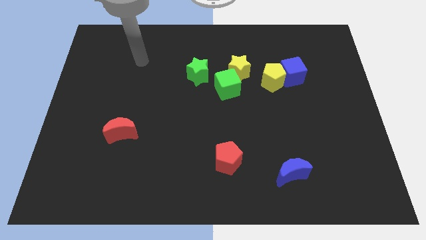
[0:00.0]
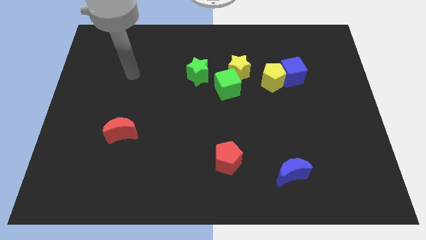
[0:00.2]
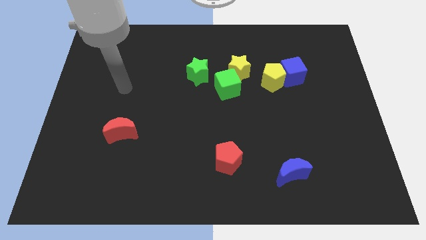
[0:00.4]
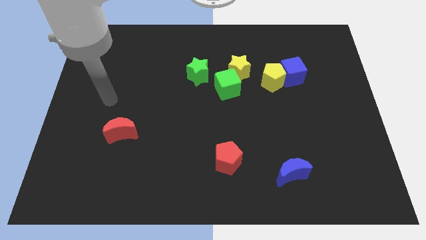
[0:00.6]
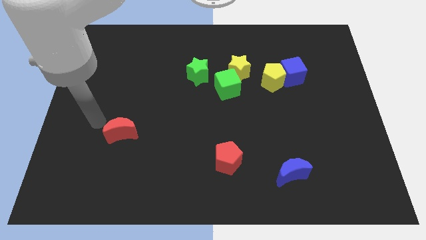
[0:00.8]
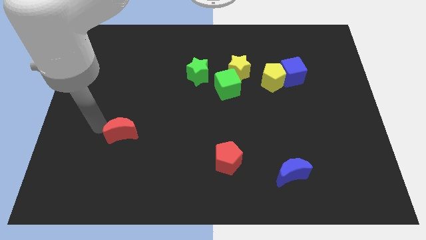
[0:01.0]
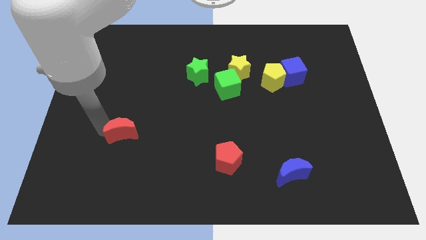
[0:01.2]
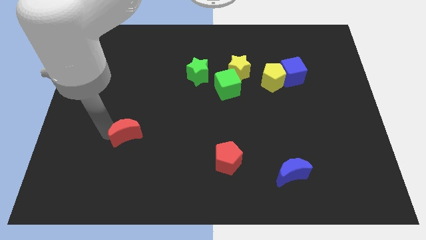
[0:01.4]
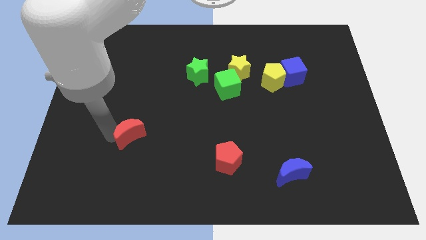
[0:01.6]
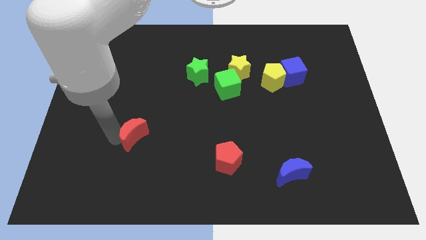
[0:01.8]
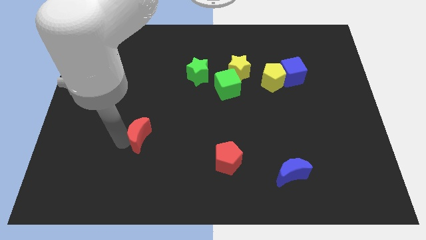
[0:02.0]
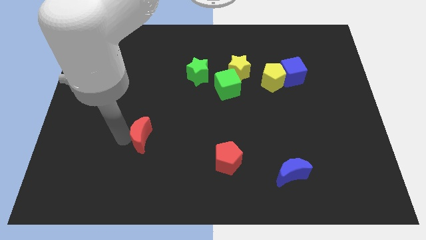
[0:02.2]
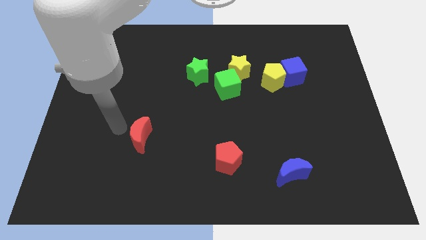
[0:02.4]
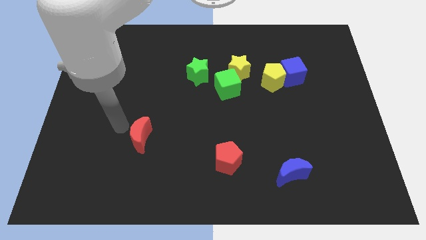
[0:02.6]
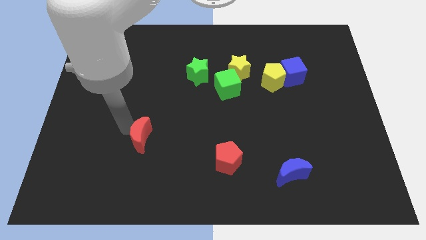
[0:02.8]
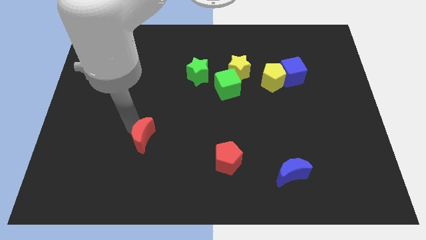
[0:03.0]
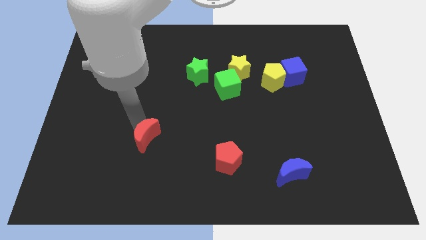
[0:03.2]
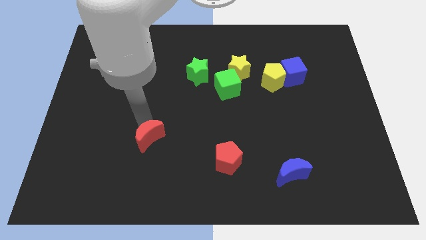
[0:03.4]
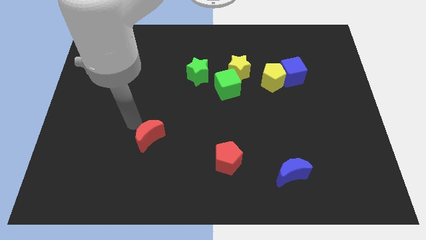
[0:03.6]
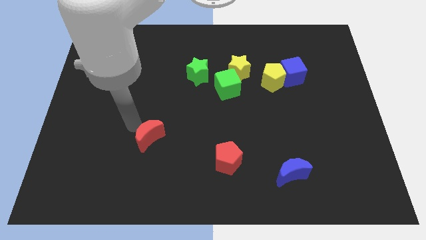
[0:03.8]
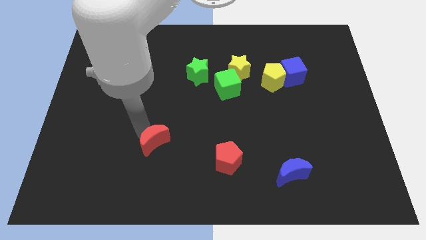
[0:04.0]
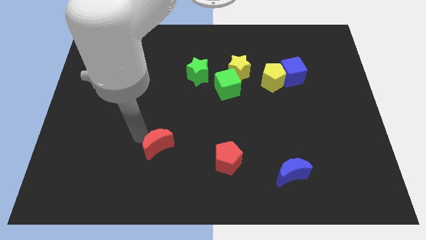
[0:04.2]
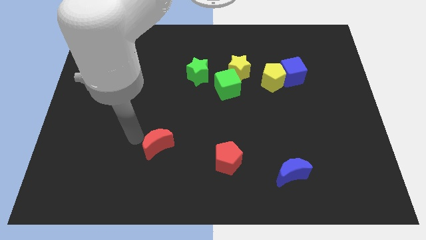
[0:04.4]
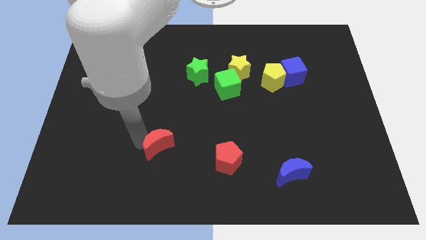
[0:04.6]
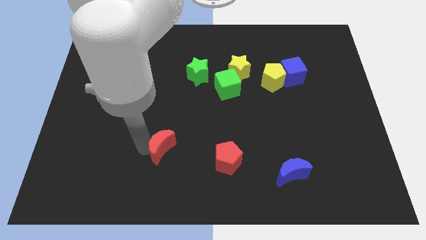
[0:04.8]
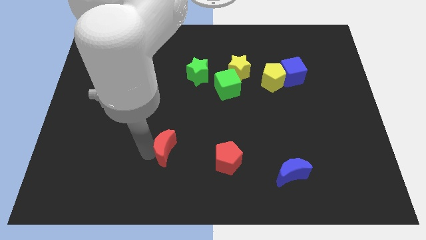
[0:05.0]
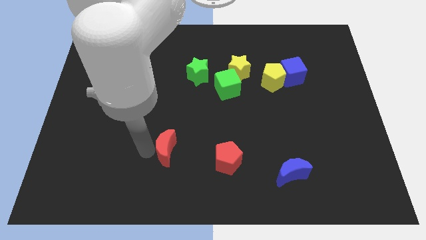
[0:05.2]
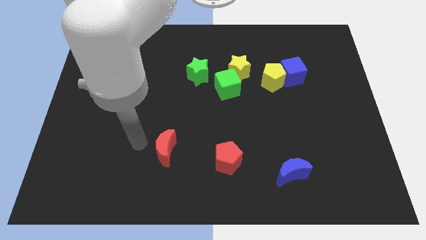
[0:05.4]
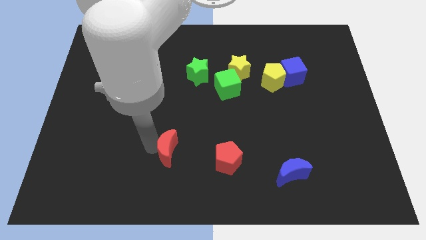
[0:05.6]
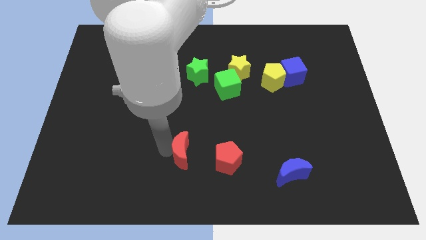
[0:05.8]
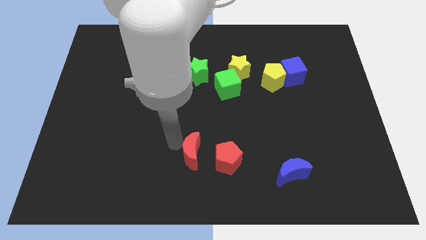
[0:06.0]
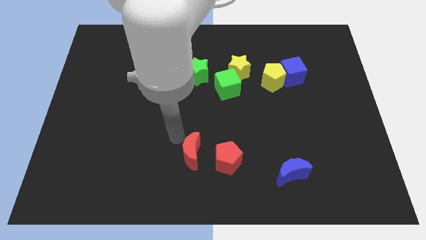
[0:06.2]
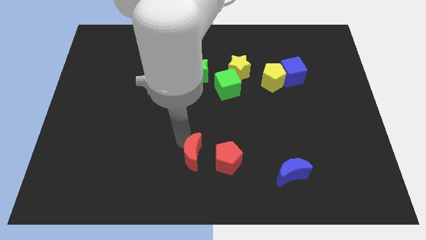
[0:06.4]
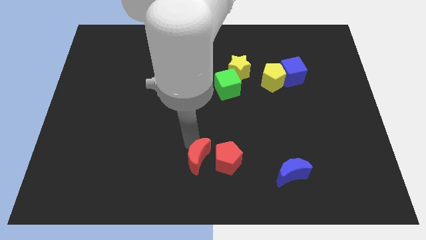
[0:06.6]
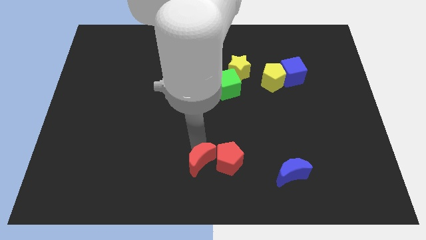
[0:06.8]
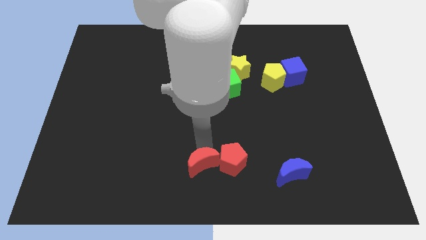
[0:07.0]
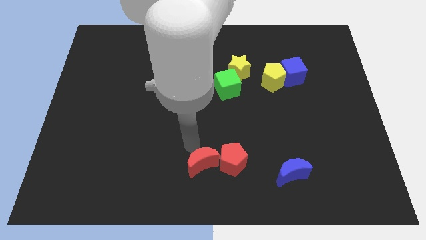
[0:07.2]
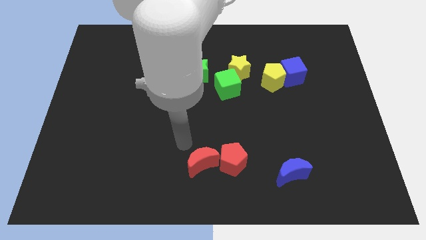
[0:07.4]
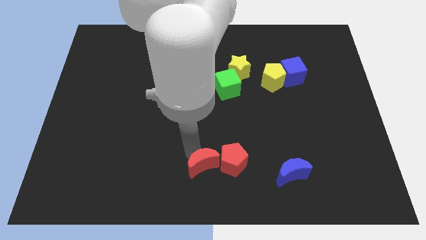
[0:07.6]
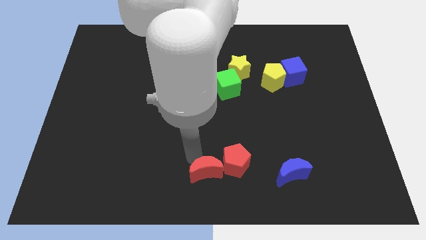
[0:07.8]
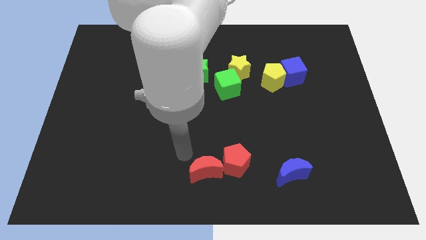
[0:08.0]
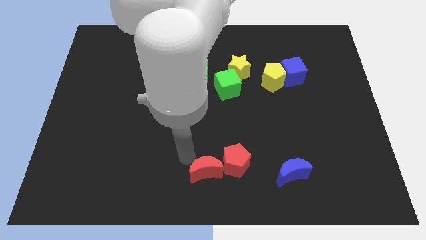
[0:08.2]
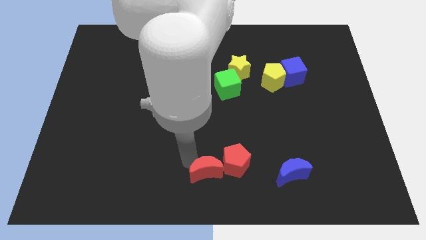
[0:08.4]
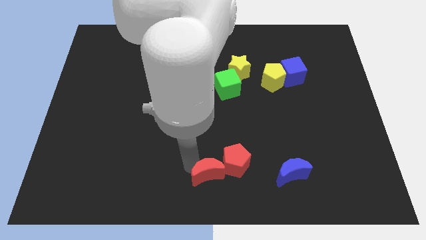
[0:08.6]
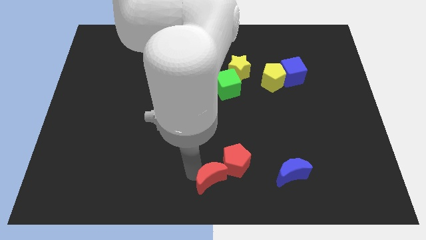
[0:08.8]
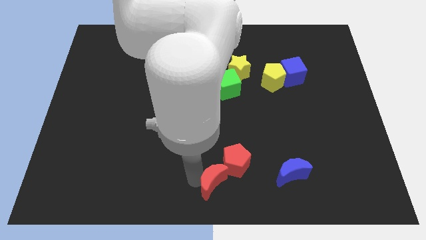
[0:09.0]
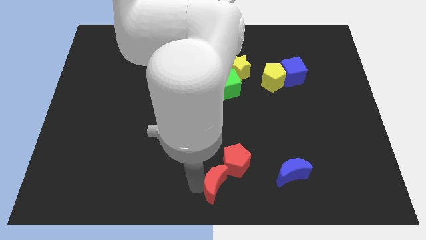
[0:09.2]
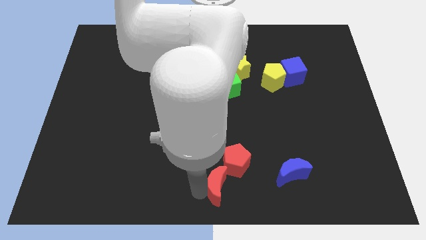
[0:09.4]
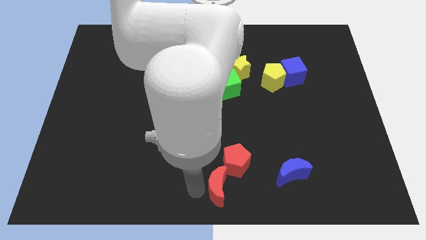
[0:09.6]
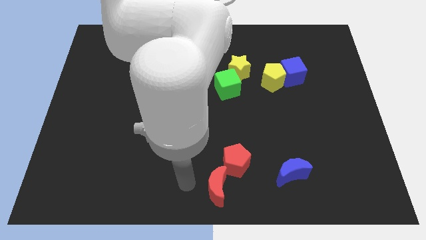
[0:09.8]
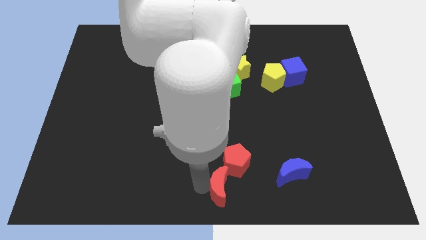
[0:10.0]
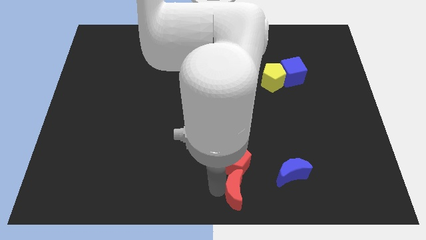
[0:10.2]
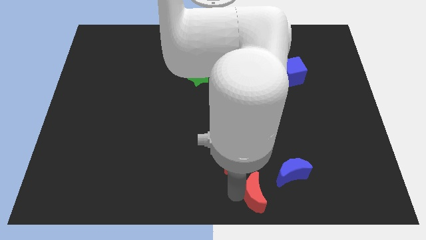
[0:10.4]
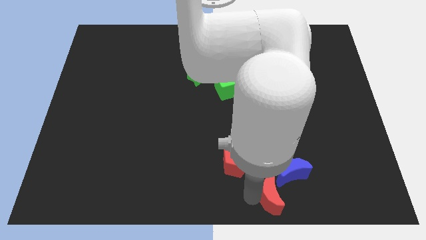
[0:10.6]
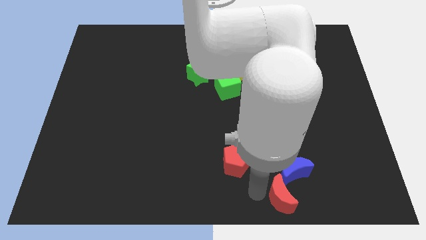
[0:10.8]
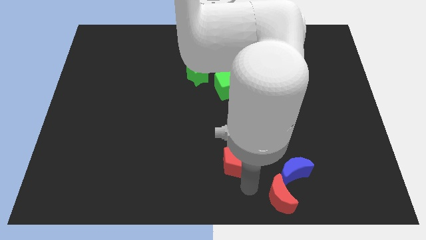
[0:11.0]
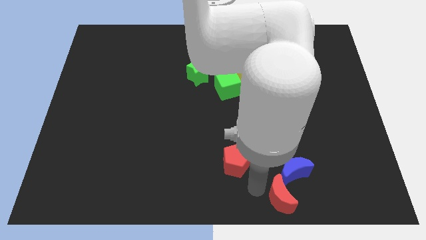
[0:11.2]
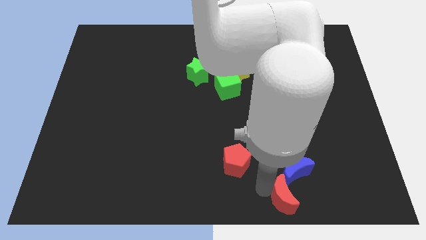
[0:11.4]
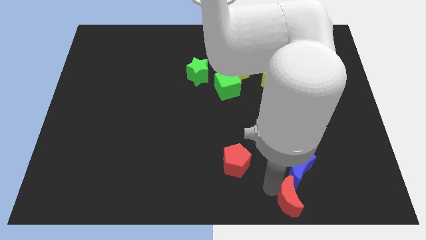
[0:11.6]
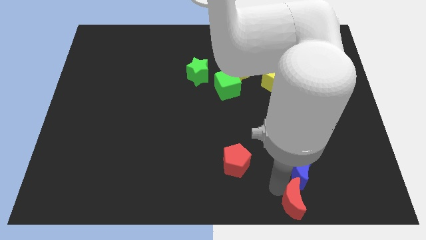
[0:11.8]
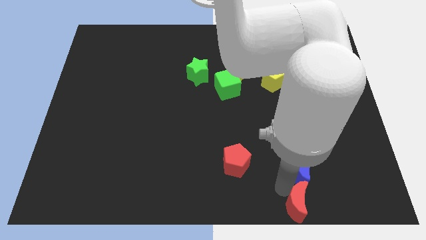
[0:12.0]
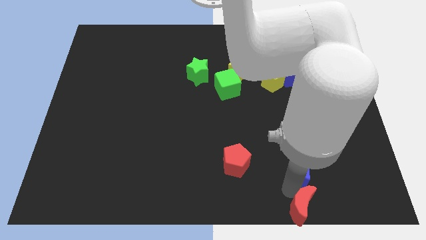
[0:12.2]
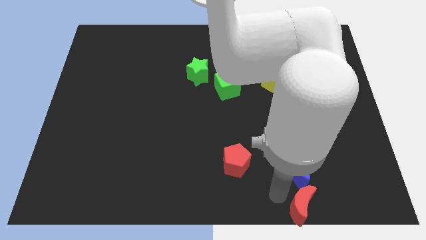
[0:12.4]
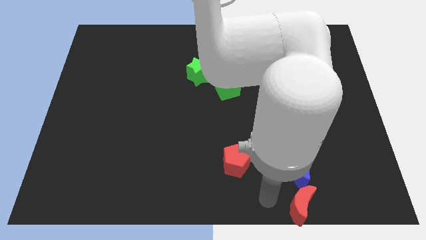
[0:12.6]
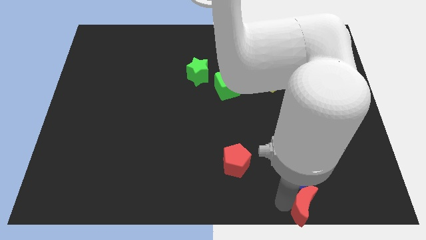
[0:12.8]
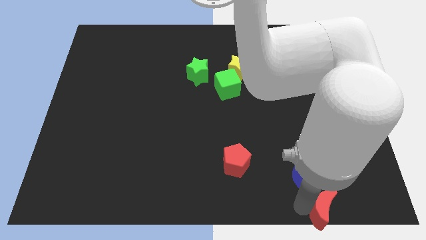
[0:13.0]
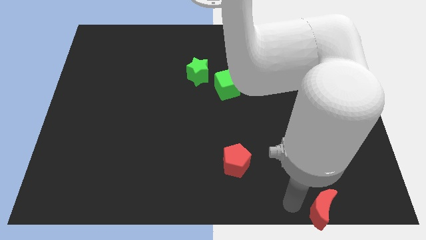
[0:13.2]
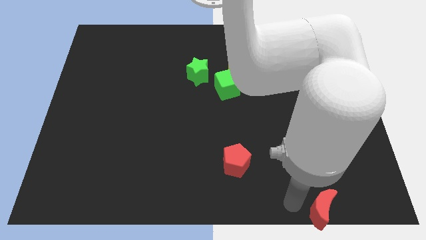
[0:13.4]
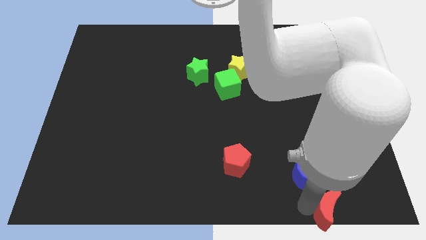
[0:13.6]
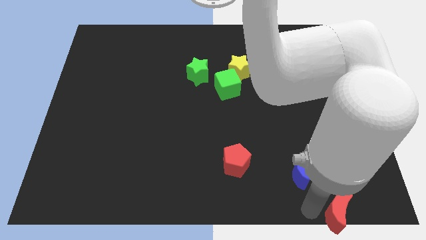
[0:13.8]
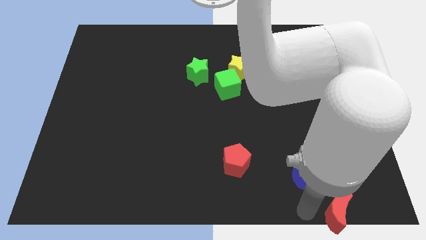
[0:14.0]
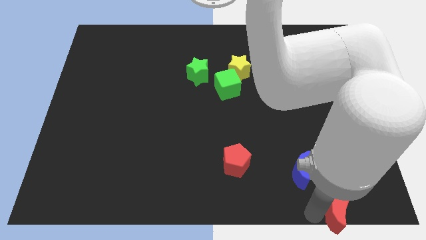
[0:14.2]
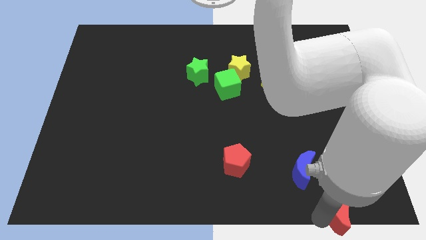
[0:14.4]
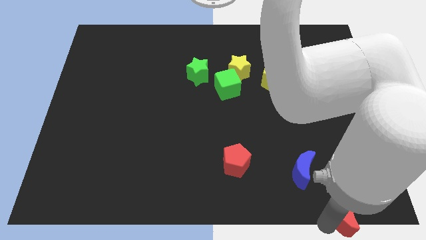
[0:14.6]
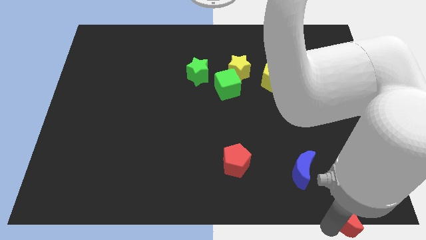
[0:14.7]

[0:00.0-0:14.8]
slide the red moon to the bottom right of the board
